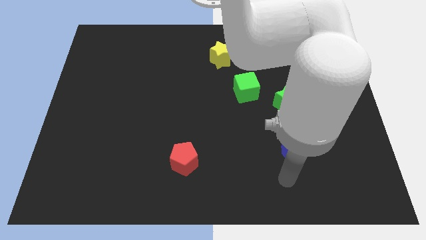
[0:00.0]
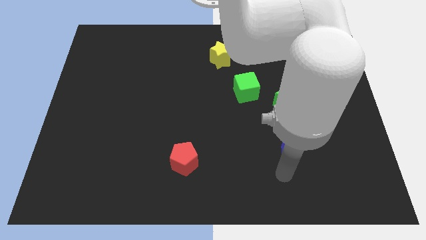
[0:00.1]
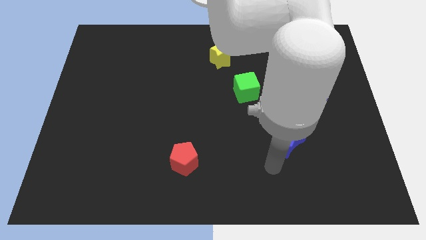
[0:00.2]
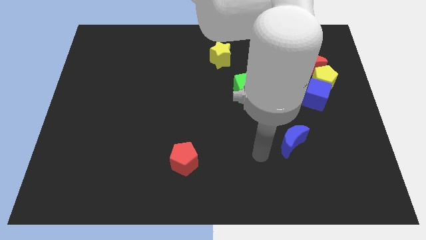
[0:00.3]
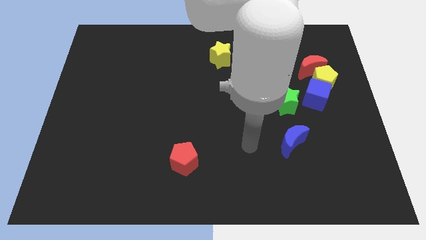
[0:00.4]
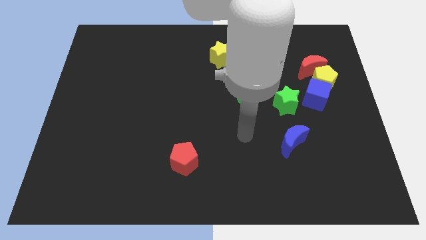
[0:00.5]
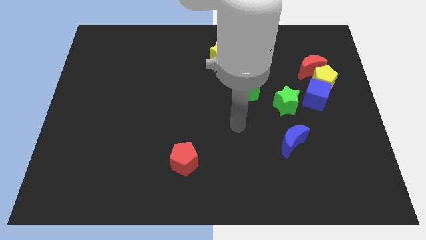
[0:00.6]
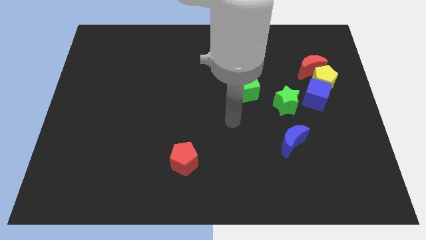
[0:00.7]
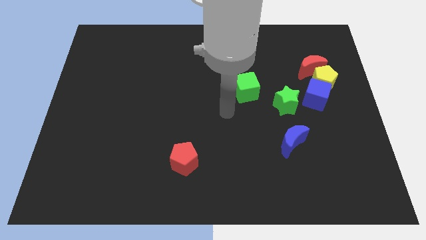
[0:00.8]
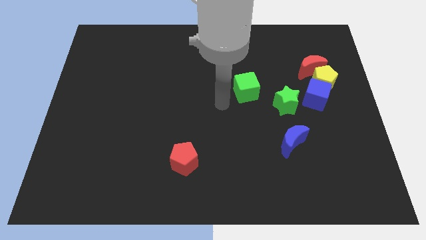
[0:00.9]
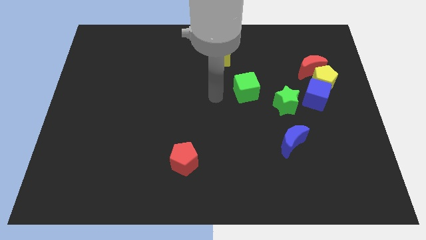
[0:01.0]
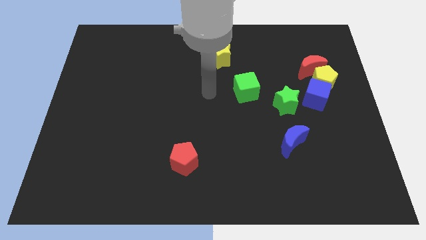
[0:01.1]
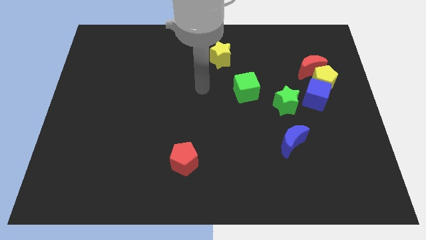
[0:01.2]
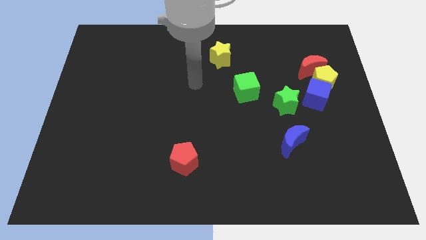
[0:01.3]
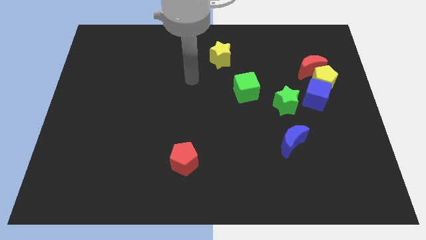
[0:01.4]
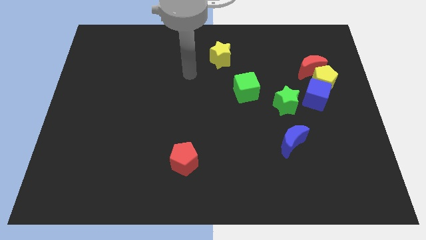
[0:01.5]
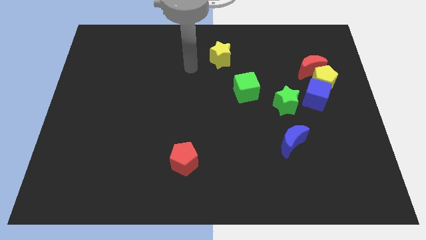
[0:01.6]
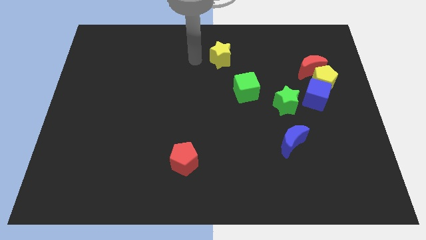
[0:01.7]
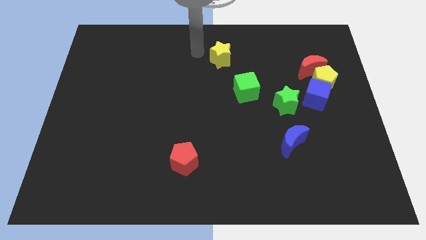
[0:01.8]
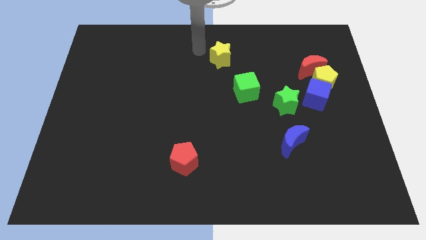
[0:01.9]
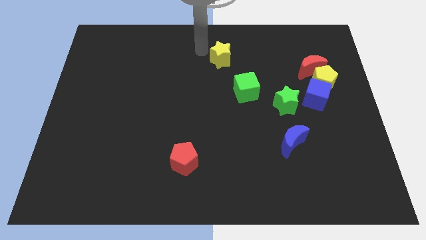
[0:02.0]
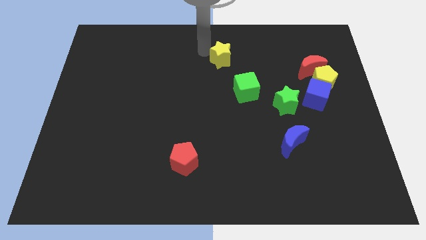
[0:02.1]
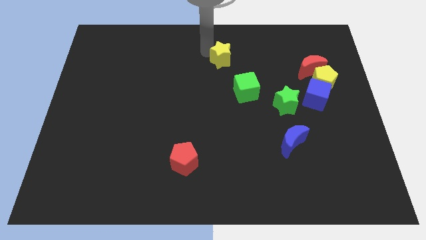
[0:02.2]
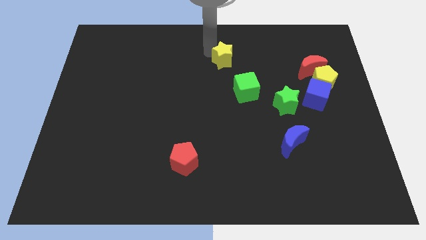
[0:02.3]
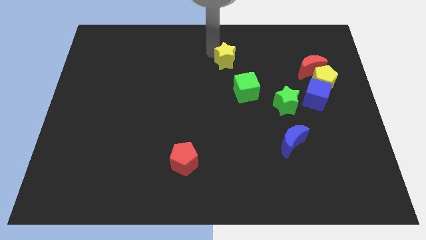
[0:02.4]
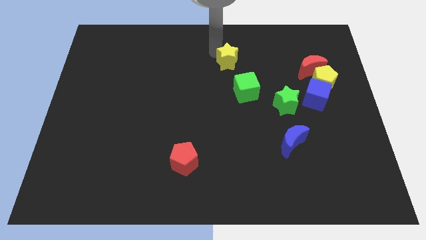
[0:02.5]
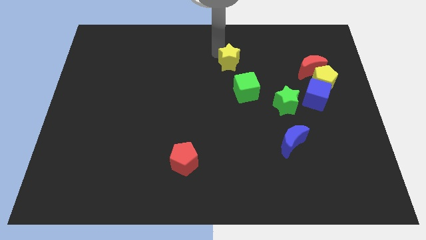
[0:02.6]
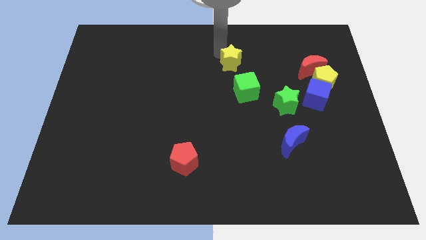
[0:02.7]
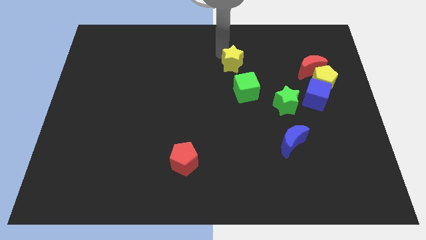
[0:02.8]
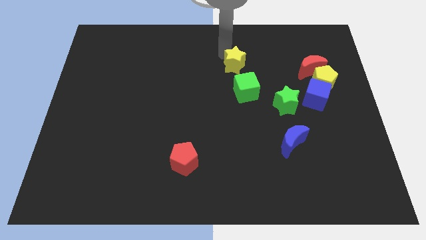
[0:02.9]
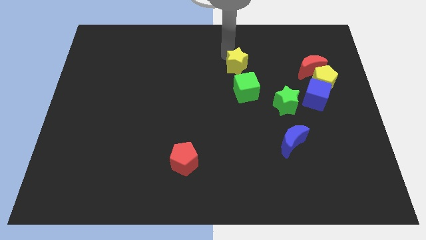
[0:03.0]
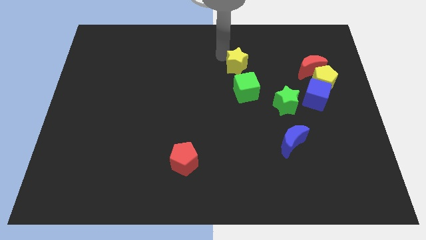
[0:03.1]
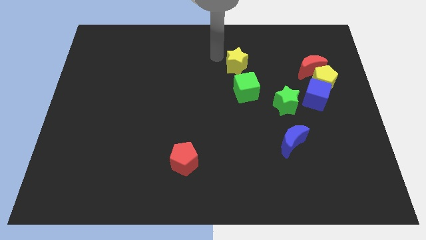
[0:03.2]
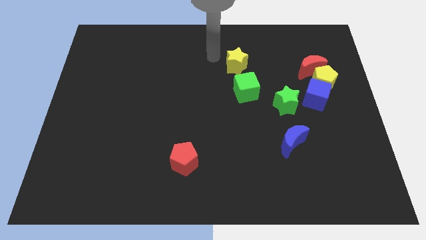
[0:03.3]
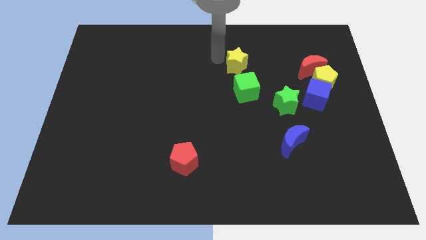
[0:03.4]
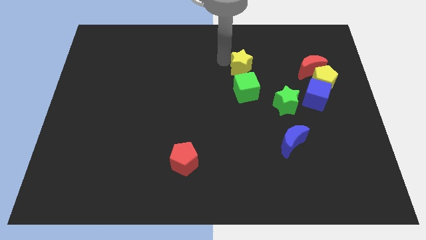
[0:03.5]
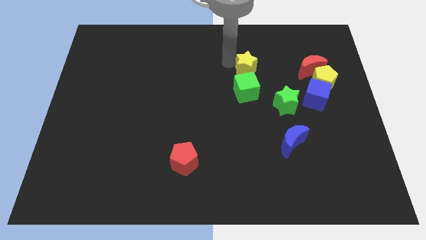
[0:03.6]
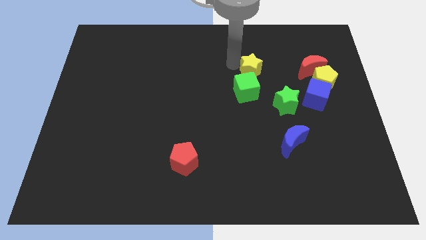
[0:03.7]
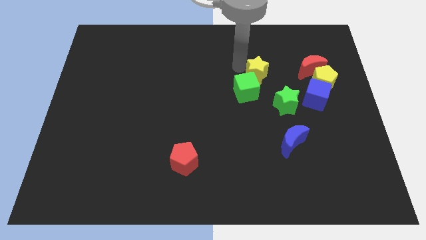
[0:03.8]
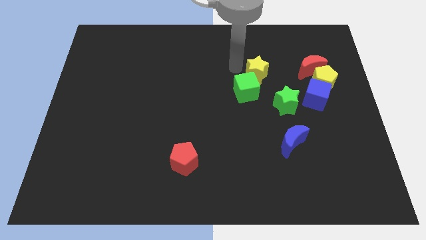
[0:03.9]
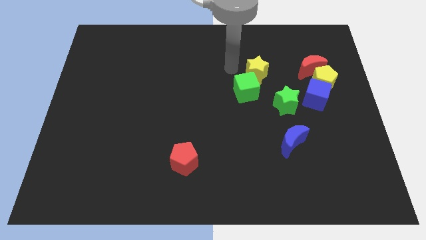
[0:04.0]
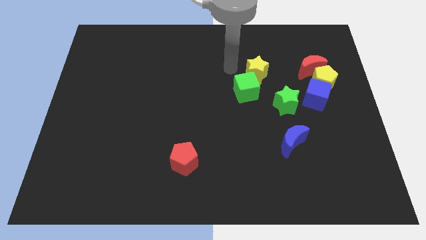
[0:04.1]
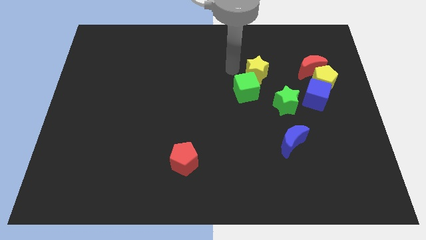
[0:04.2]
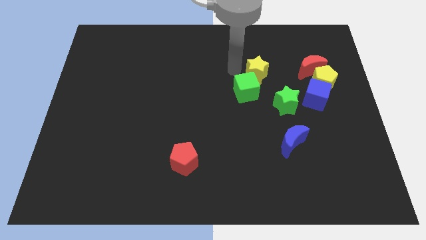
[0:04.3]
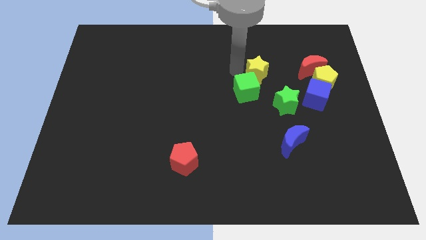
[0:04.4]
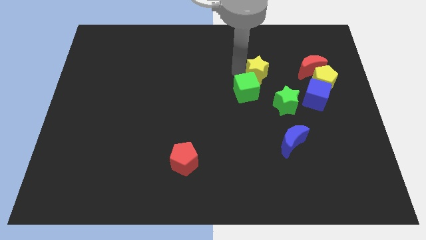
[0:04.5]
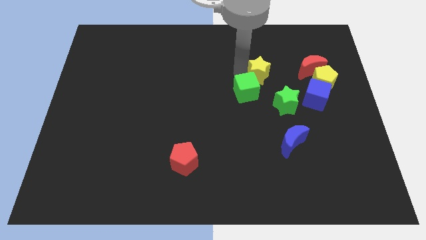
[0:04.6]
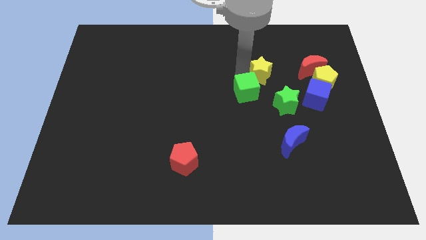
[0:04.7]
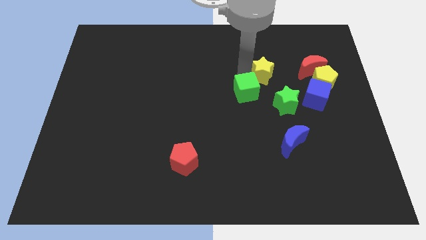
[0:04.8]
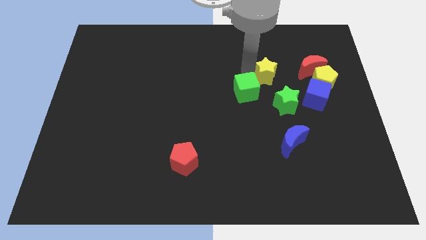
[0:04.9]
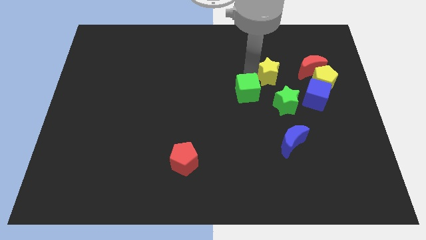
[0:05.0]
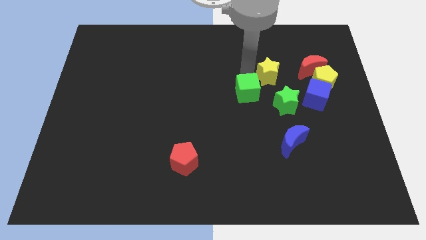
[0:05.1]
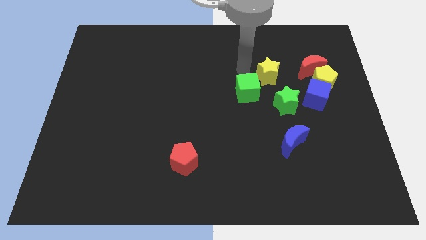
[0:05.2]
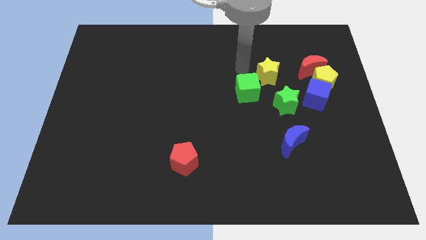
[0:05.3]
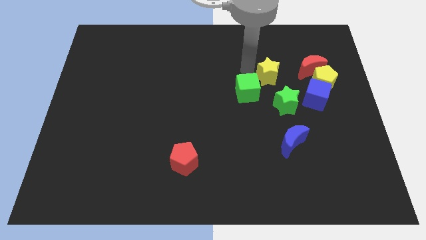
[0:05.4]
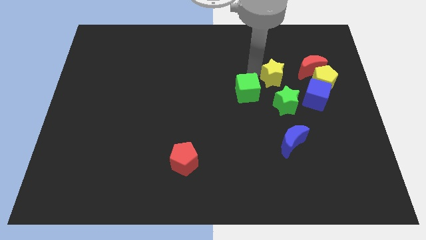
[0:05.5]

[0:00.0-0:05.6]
slide the yellow star diagonally up and to the left of the blue cube
